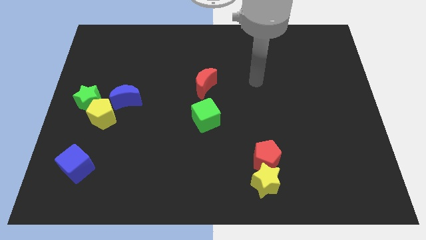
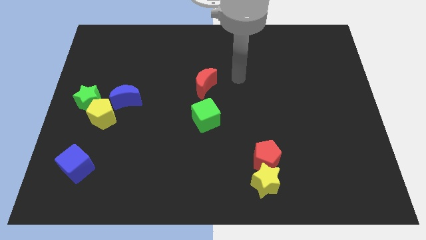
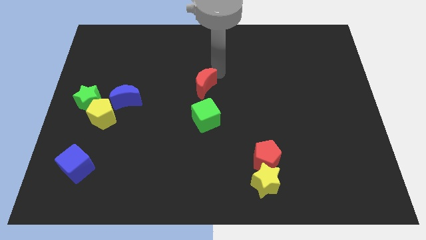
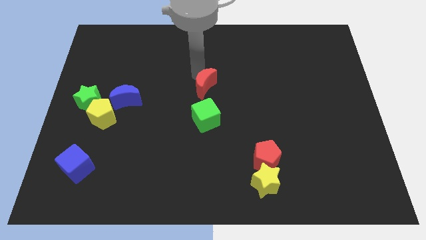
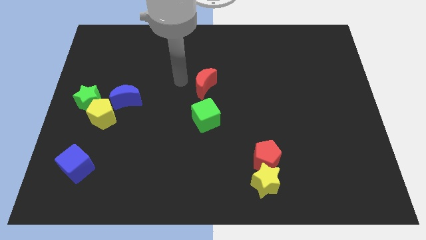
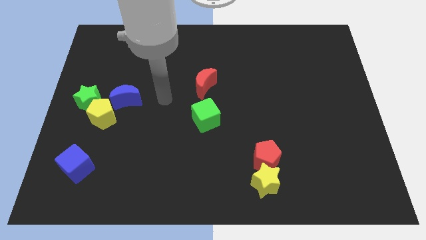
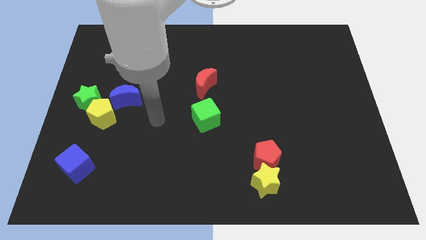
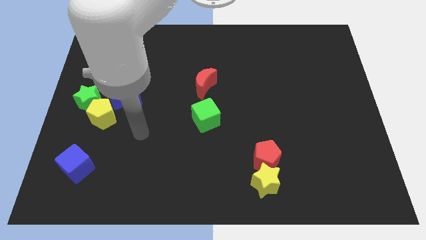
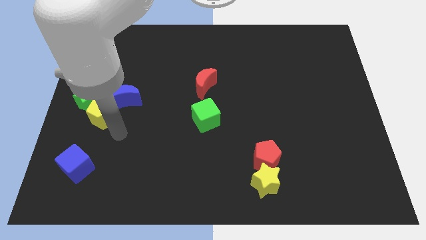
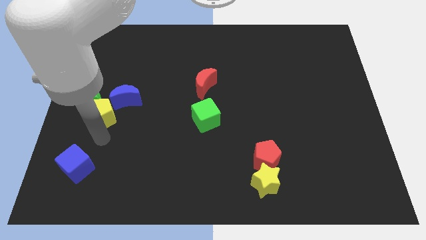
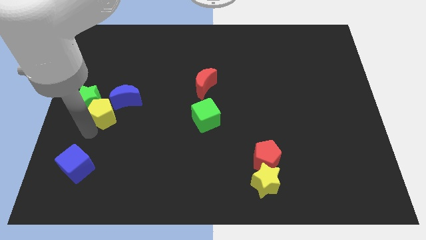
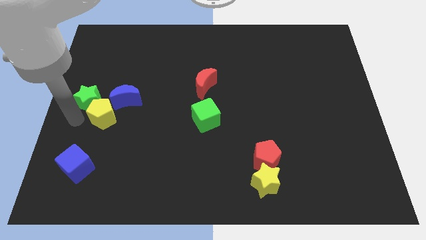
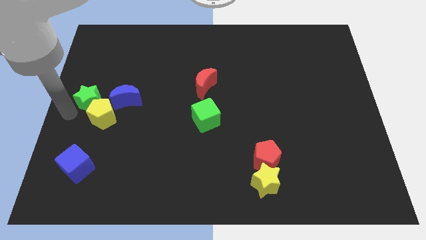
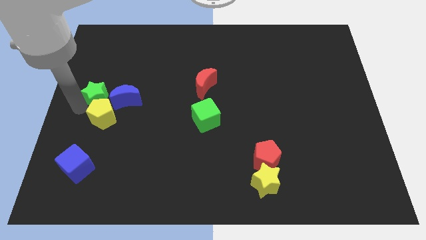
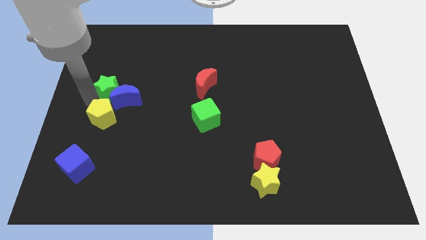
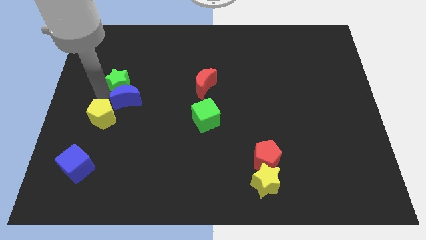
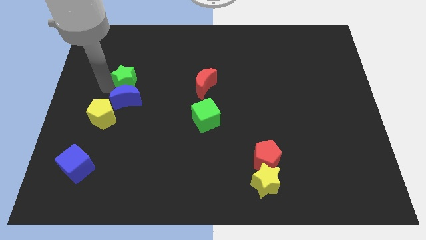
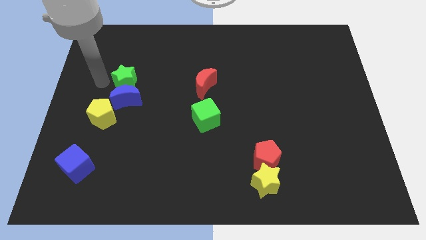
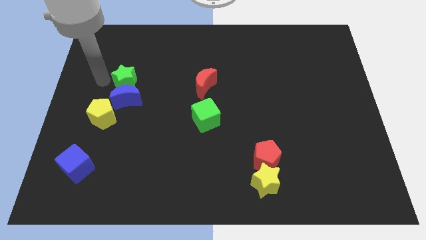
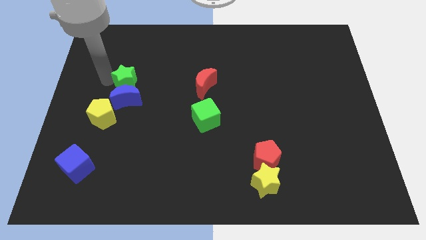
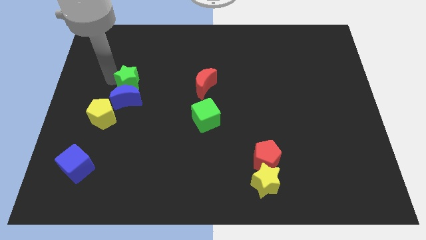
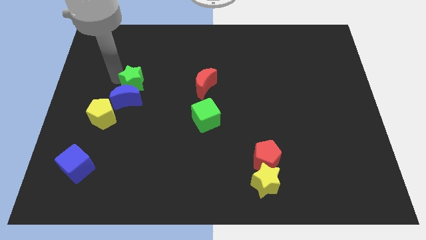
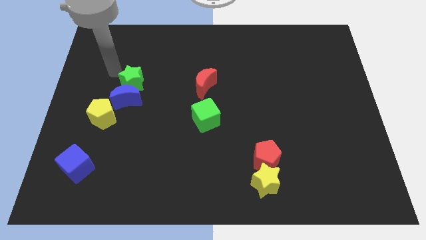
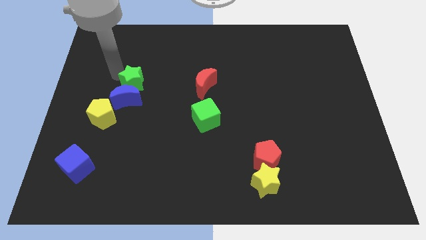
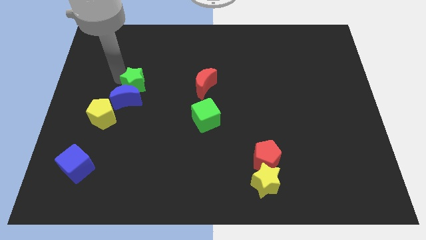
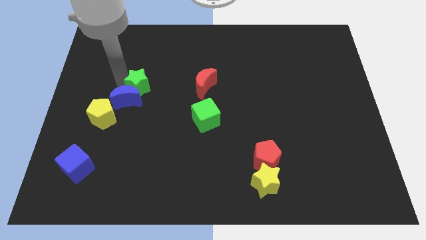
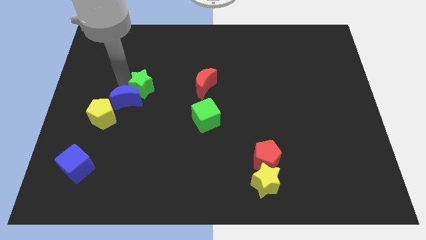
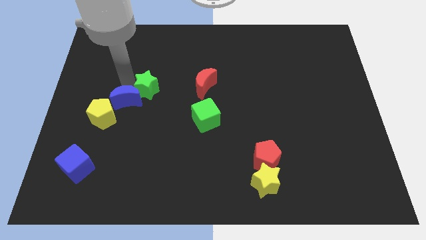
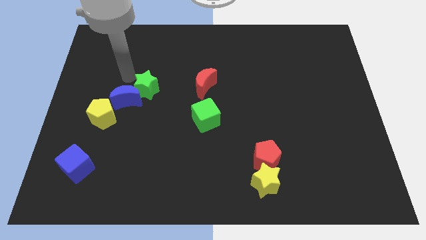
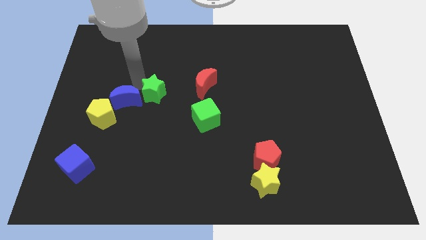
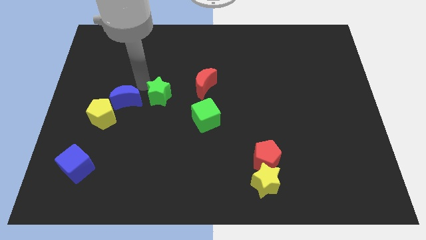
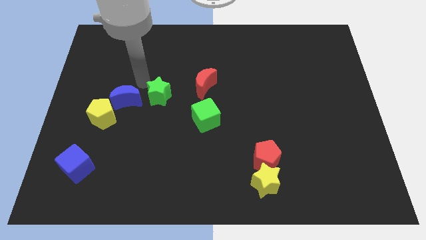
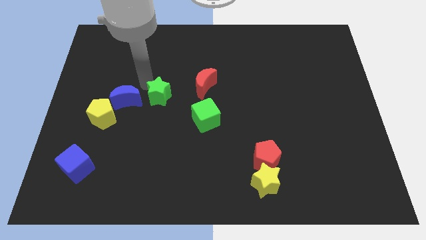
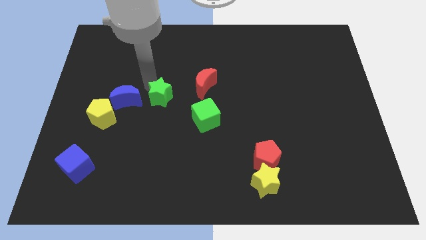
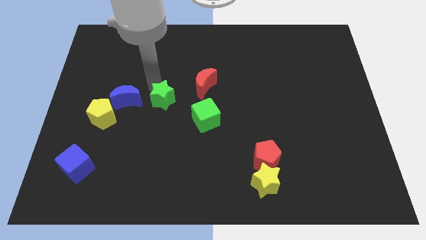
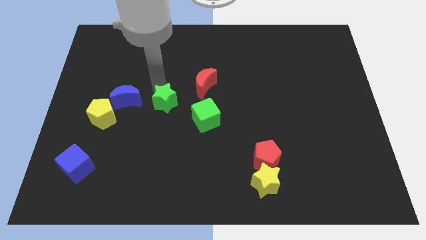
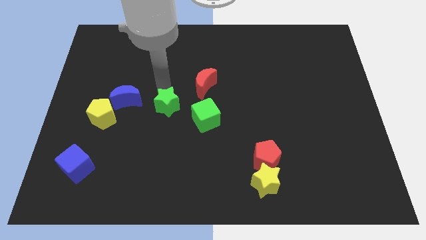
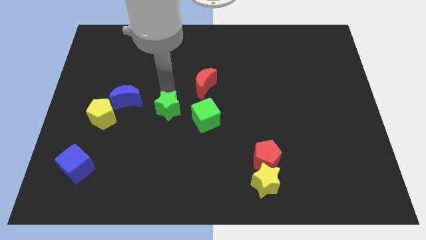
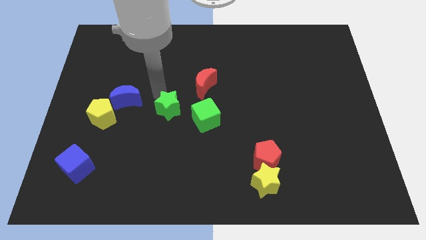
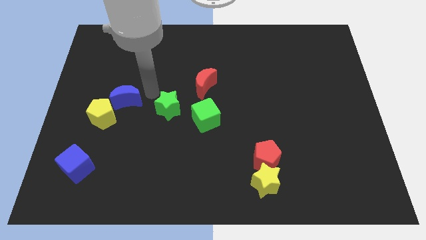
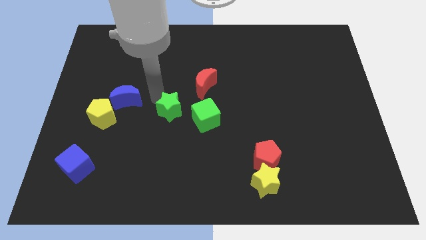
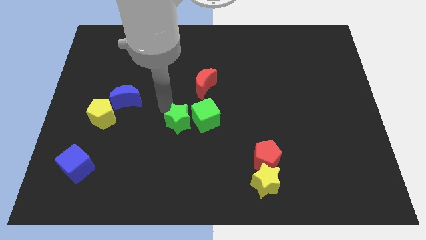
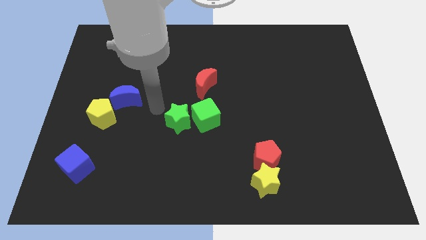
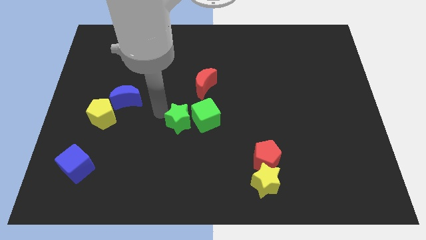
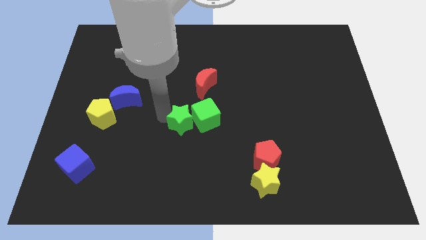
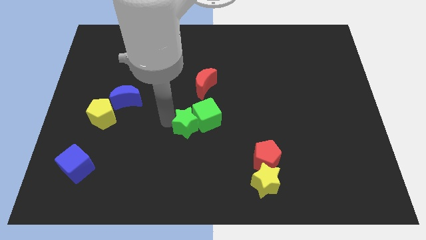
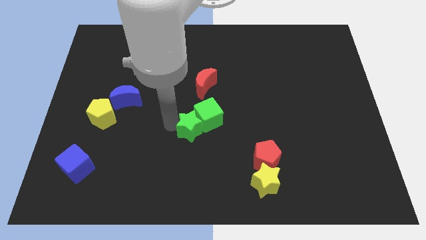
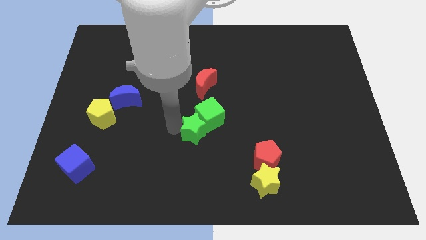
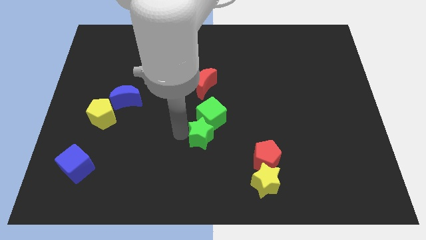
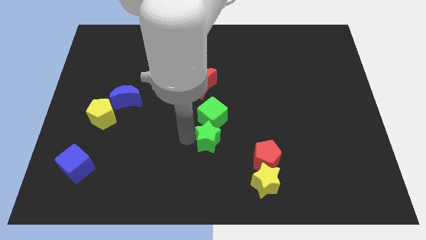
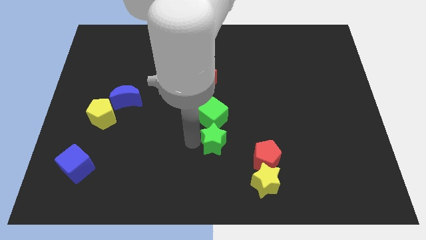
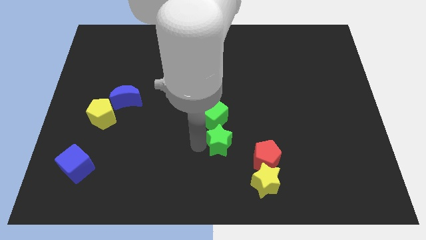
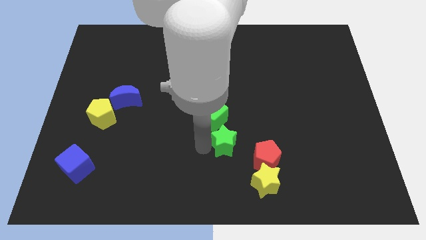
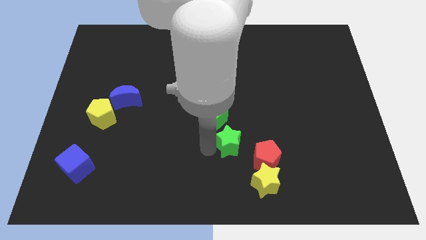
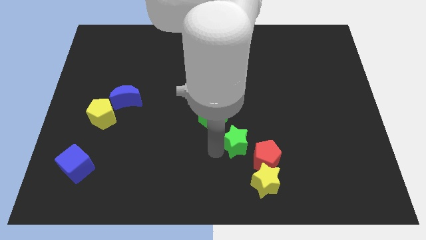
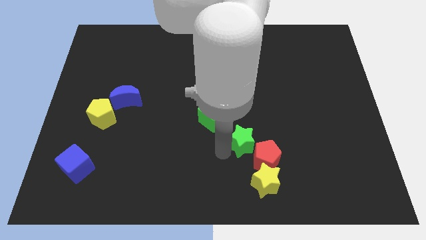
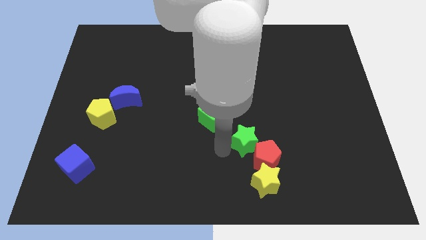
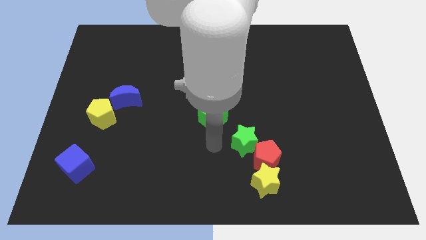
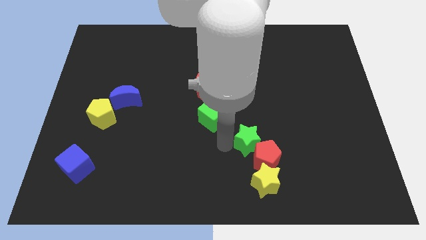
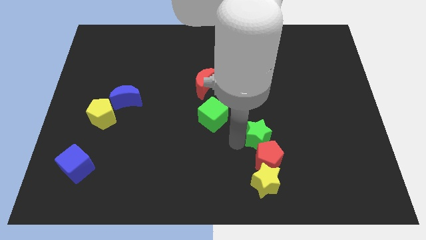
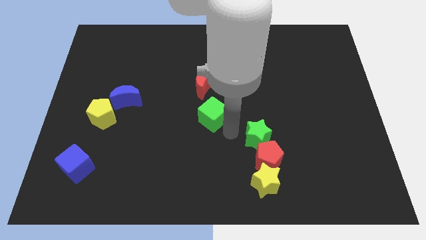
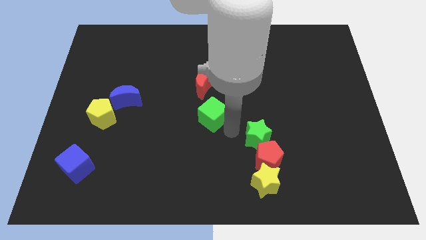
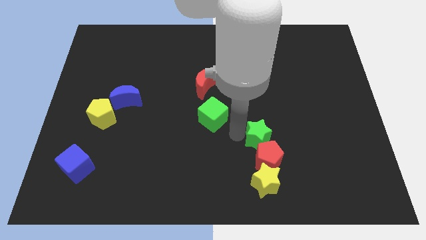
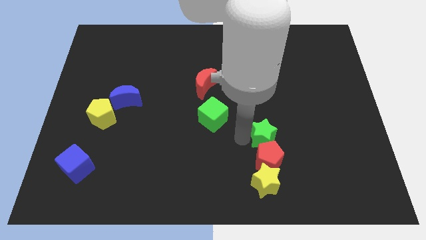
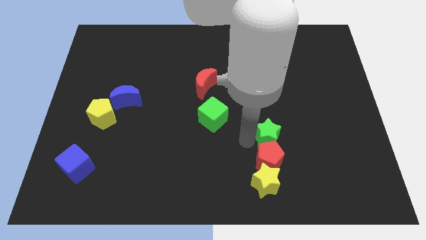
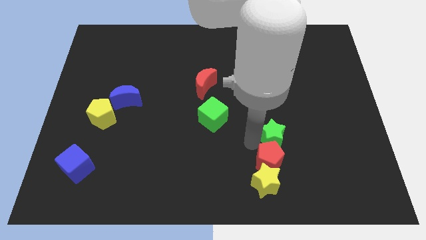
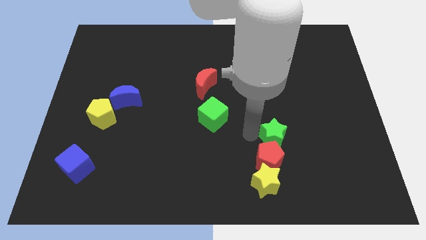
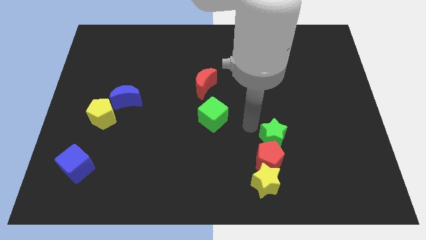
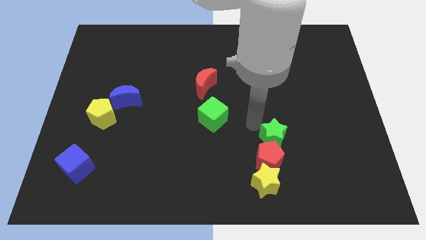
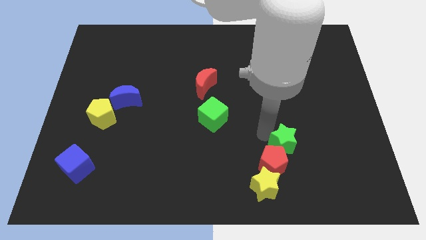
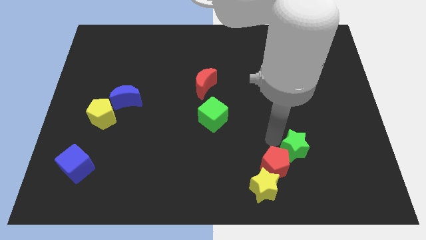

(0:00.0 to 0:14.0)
push the green star to the right side of the red pentagon

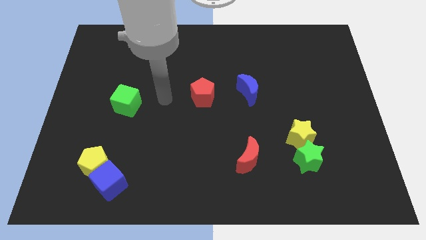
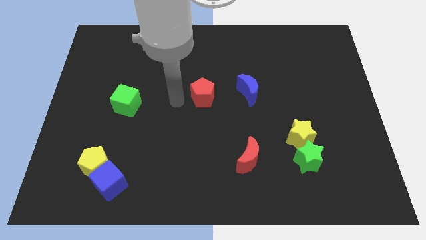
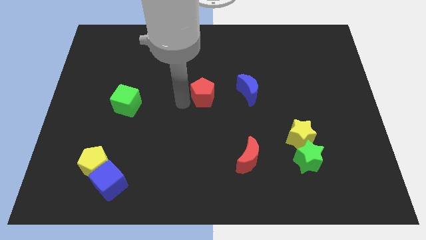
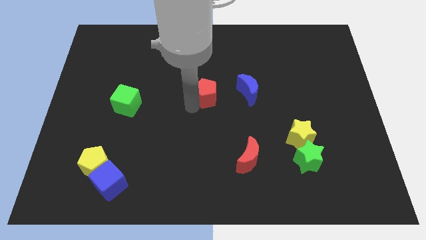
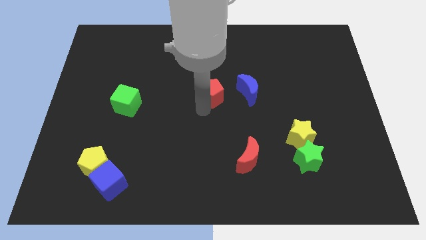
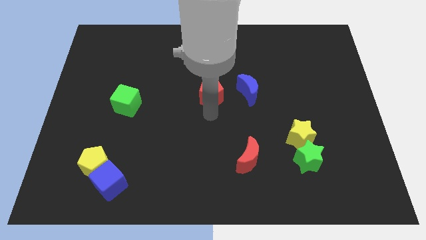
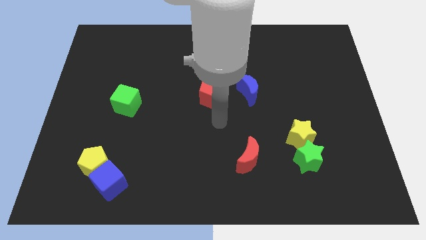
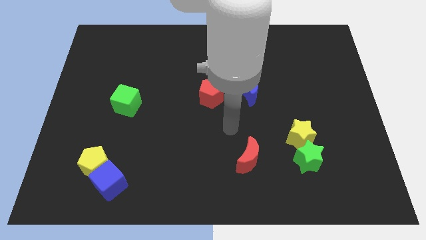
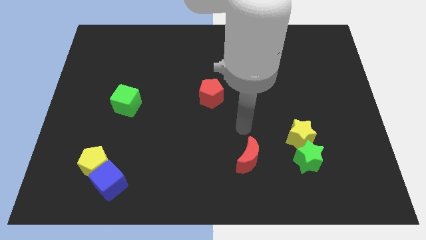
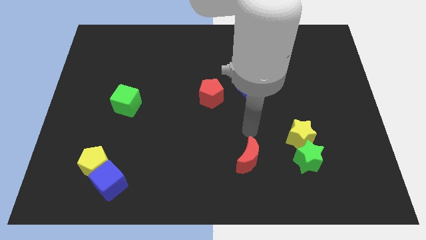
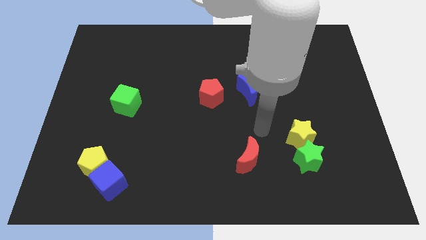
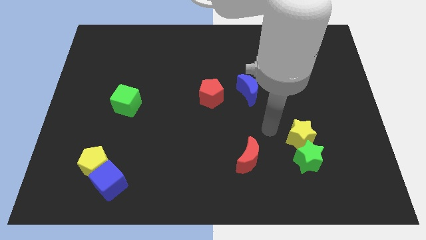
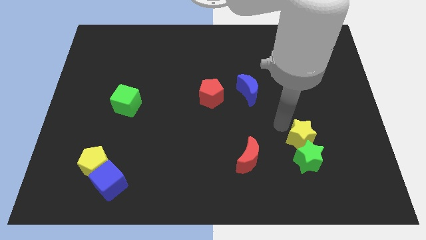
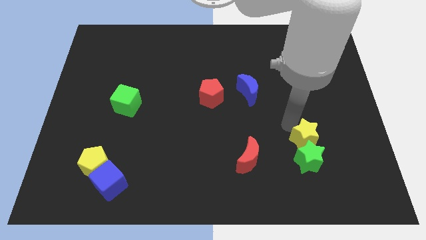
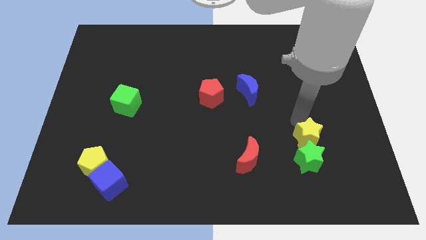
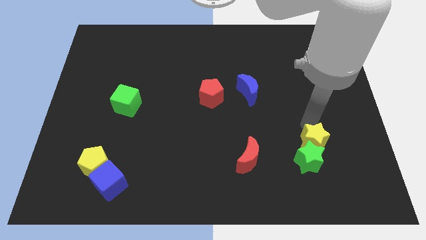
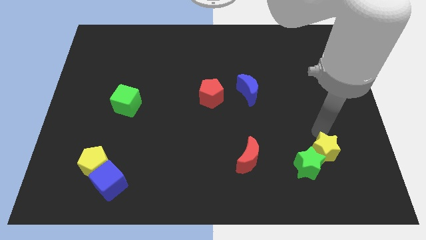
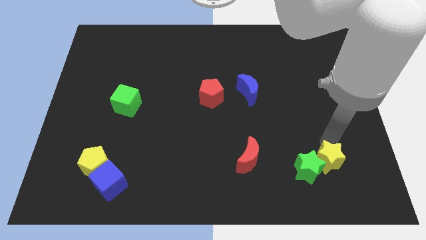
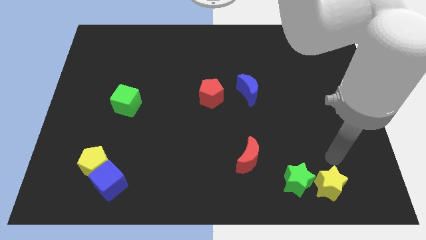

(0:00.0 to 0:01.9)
put the green star to the bottom right of the red moon
